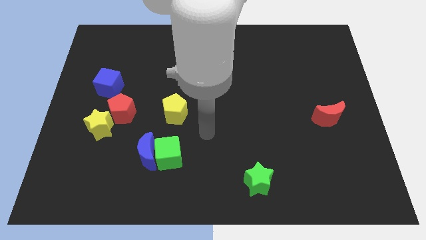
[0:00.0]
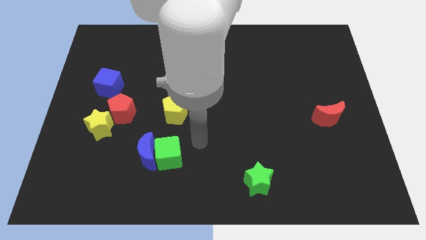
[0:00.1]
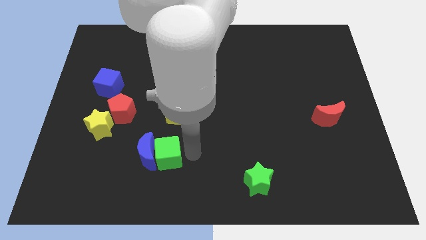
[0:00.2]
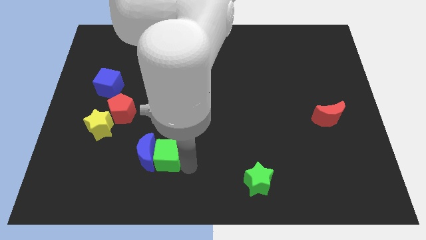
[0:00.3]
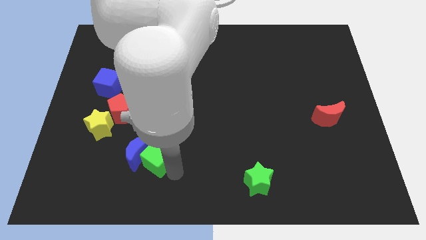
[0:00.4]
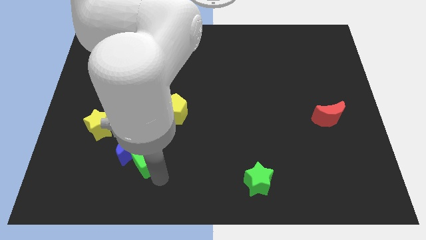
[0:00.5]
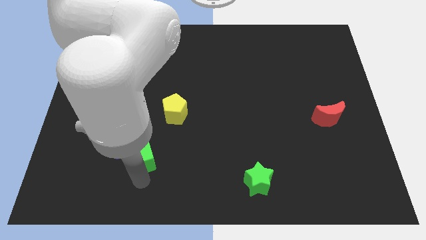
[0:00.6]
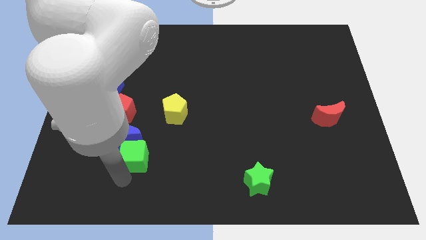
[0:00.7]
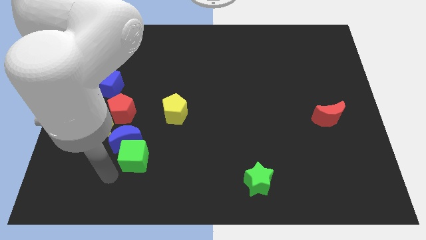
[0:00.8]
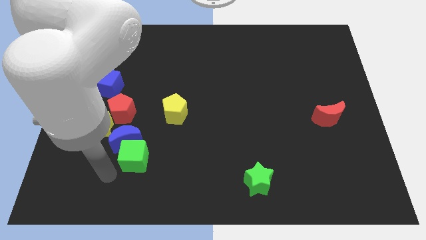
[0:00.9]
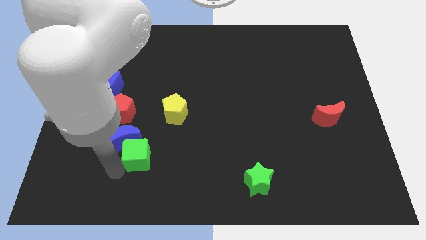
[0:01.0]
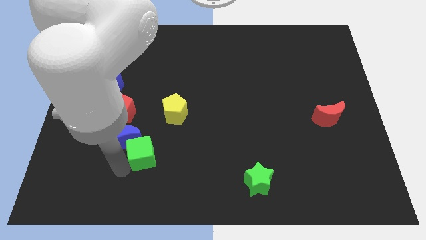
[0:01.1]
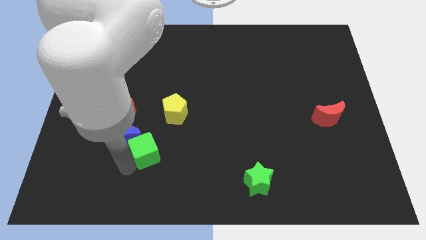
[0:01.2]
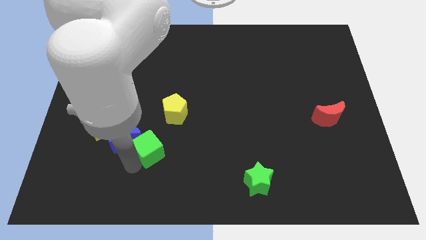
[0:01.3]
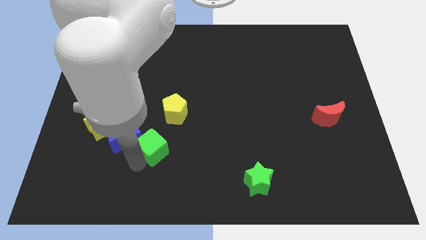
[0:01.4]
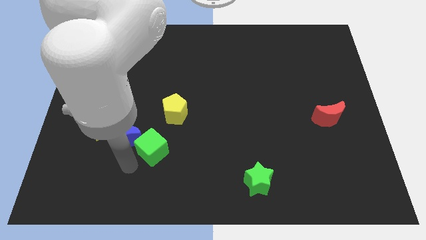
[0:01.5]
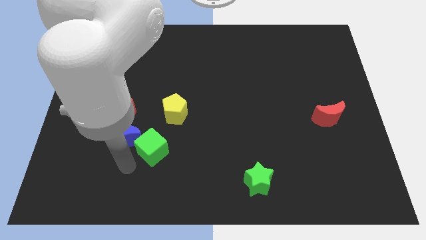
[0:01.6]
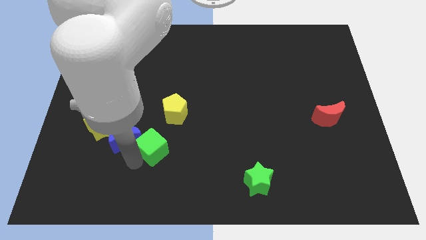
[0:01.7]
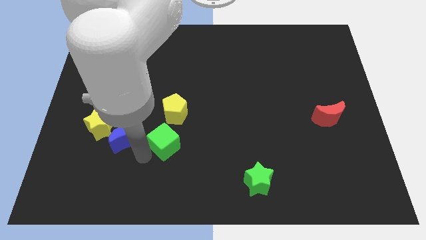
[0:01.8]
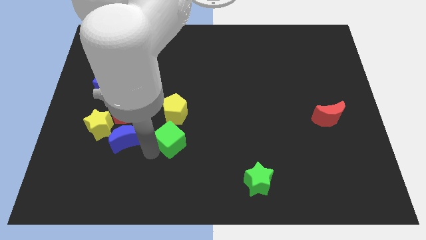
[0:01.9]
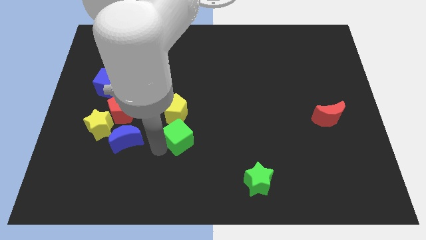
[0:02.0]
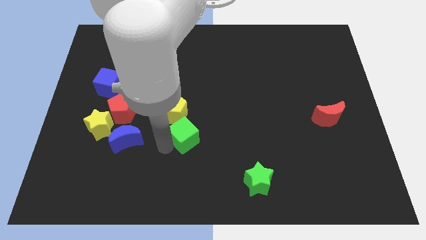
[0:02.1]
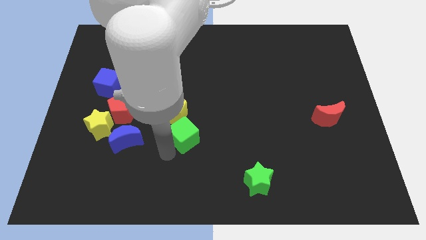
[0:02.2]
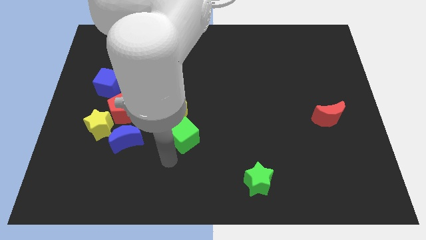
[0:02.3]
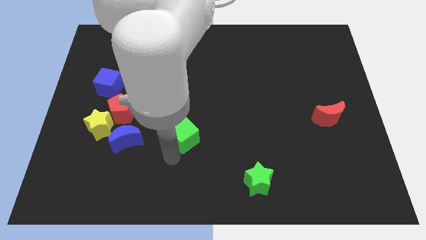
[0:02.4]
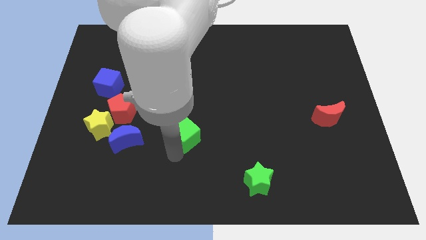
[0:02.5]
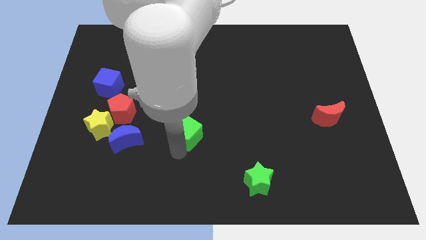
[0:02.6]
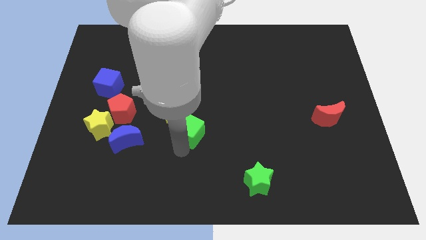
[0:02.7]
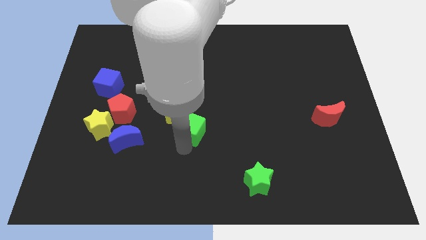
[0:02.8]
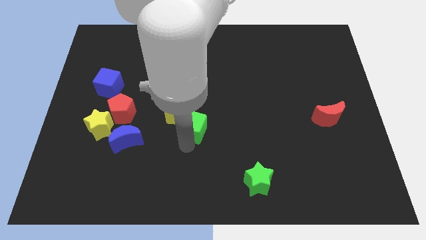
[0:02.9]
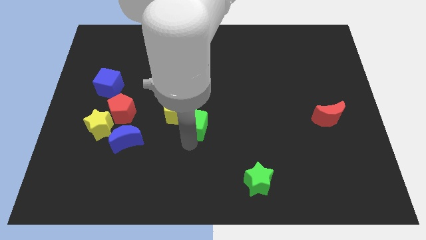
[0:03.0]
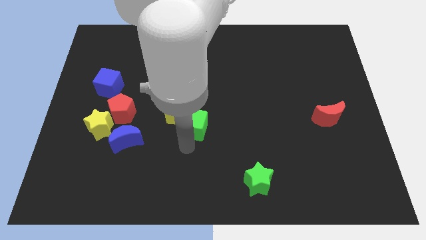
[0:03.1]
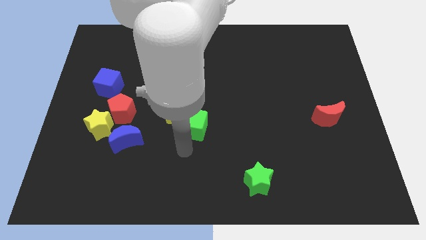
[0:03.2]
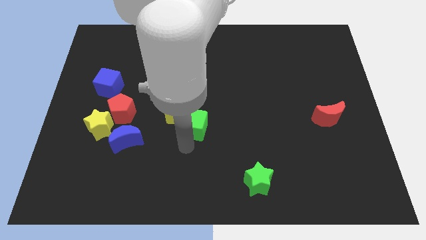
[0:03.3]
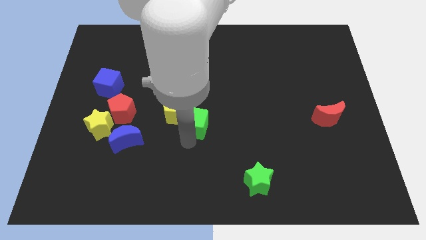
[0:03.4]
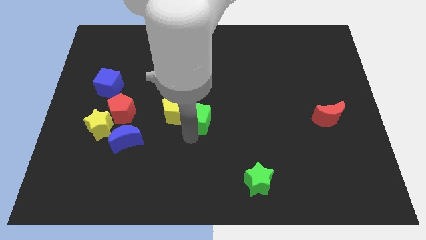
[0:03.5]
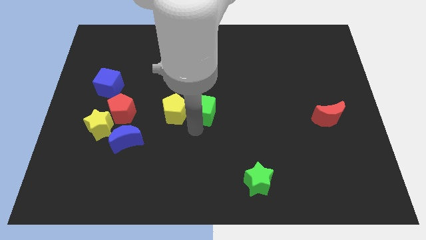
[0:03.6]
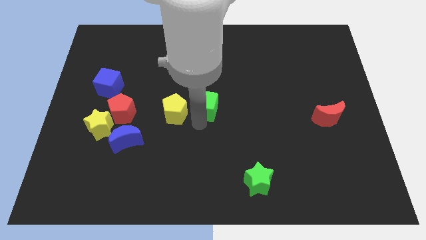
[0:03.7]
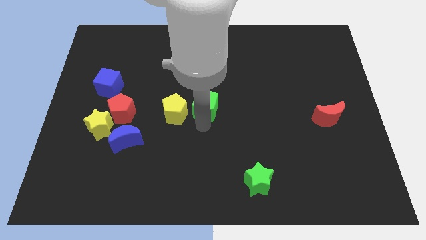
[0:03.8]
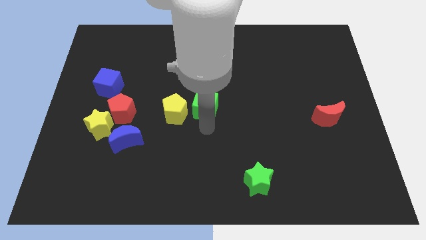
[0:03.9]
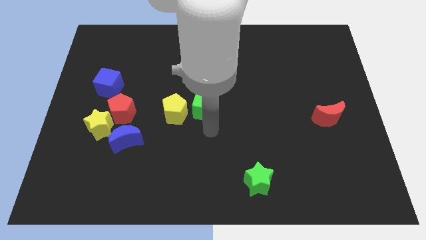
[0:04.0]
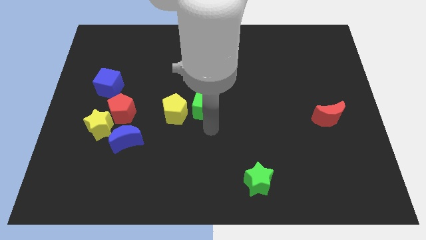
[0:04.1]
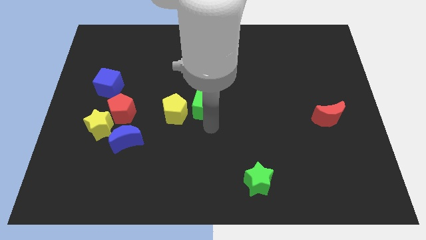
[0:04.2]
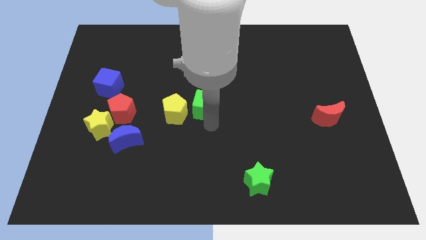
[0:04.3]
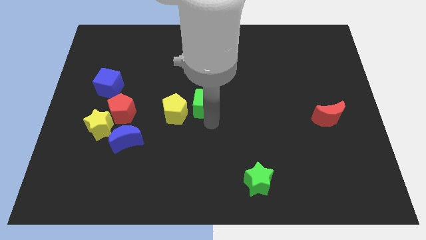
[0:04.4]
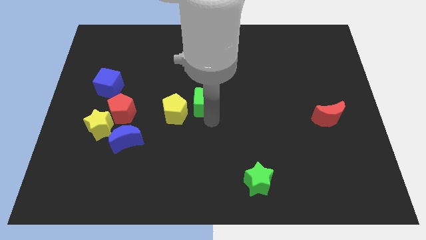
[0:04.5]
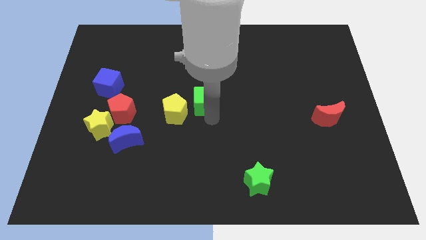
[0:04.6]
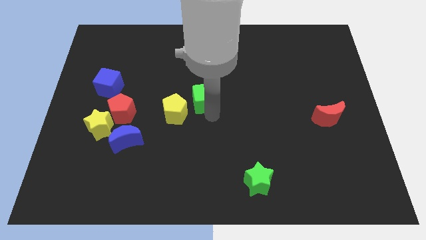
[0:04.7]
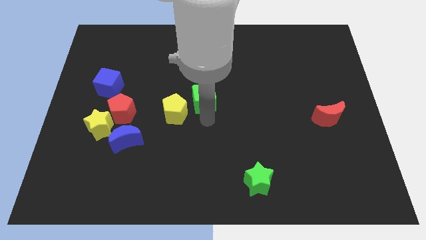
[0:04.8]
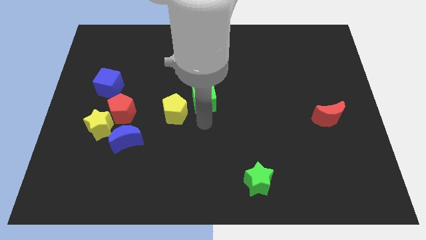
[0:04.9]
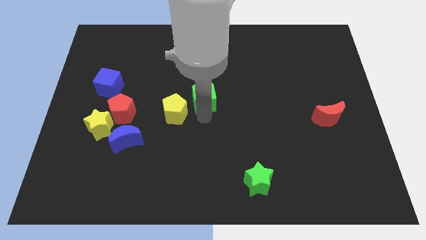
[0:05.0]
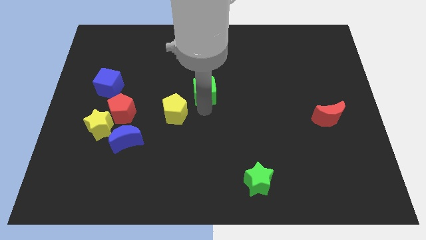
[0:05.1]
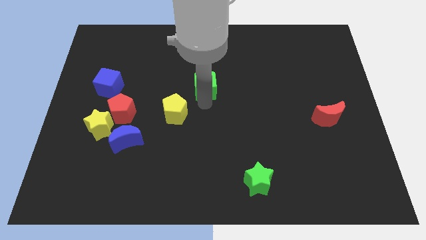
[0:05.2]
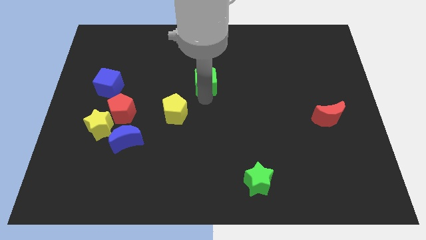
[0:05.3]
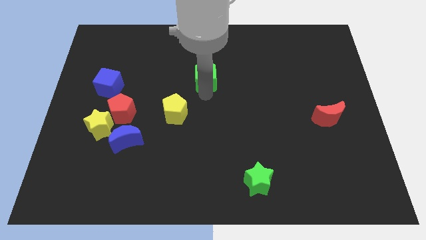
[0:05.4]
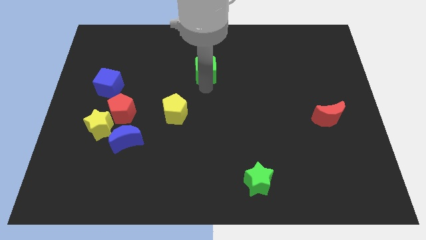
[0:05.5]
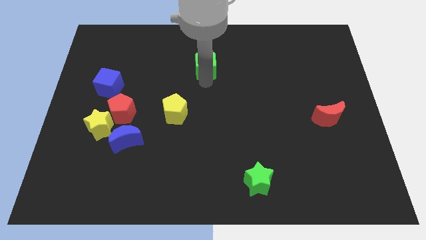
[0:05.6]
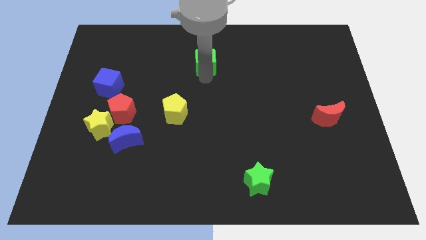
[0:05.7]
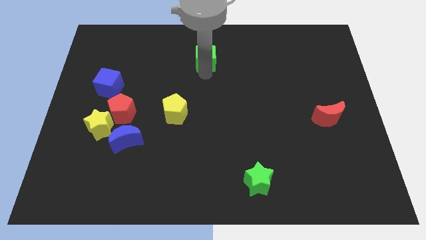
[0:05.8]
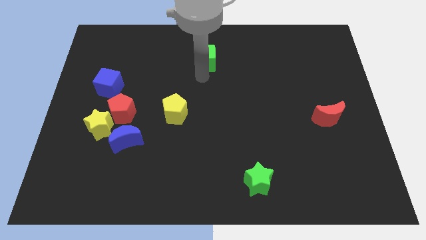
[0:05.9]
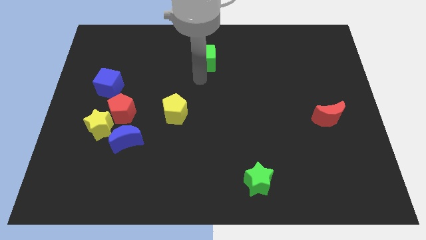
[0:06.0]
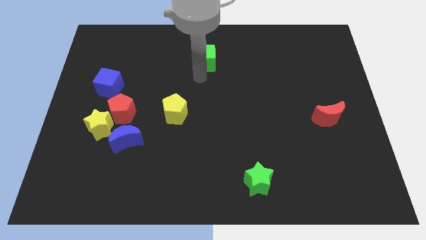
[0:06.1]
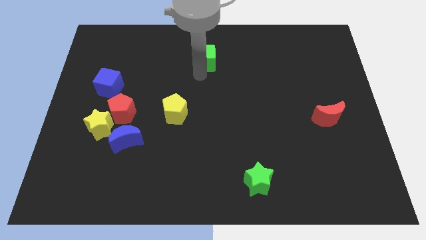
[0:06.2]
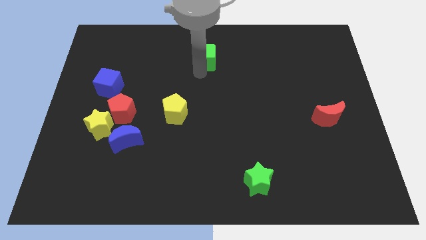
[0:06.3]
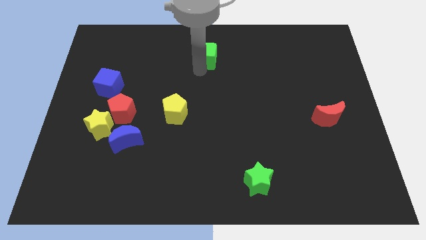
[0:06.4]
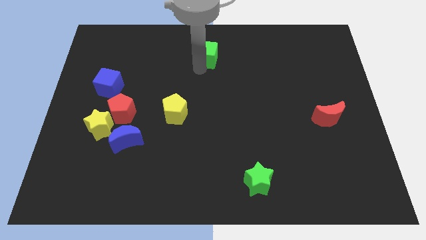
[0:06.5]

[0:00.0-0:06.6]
put the green cube to the top
